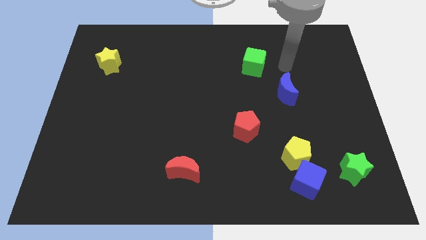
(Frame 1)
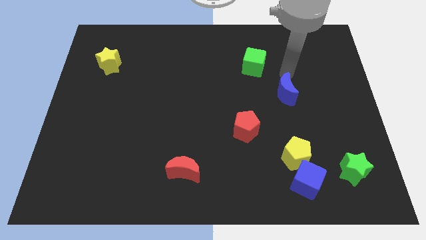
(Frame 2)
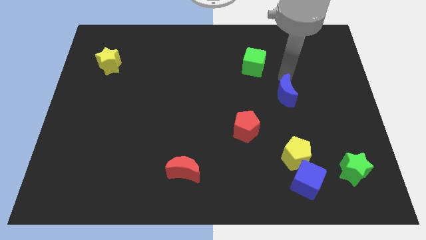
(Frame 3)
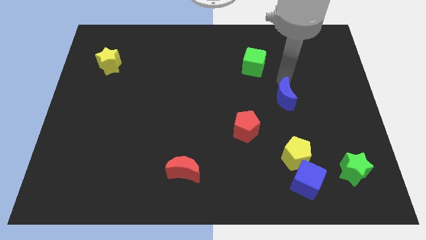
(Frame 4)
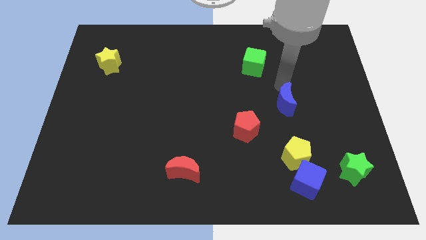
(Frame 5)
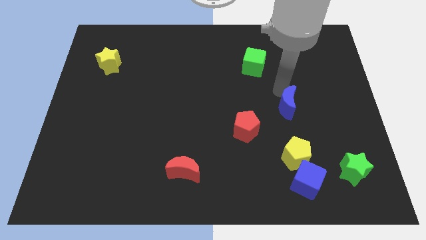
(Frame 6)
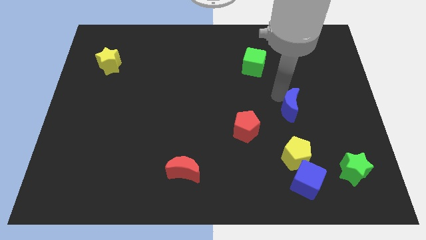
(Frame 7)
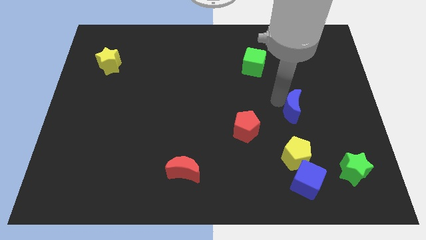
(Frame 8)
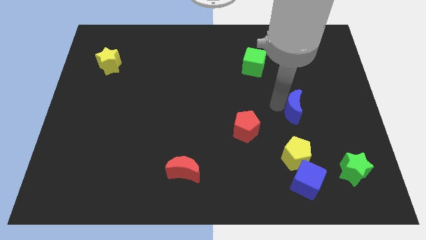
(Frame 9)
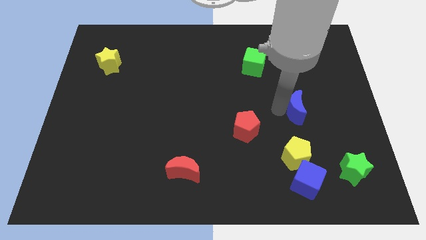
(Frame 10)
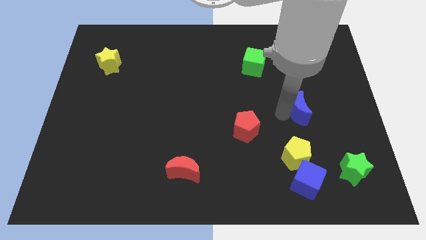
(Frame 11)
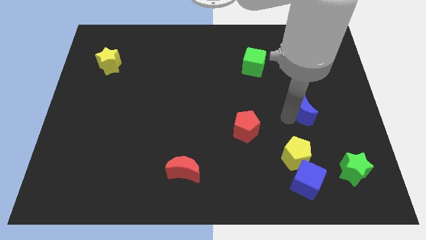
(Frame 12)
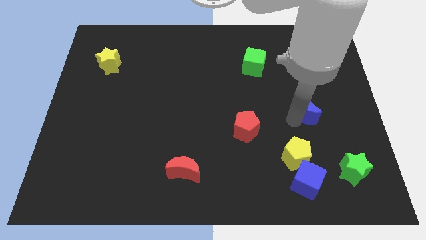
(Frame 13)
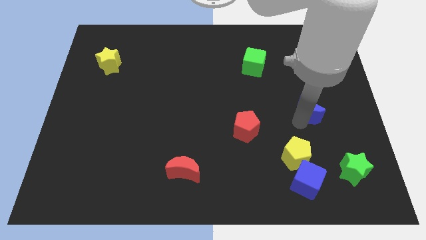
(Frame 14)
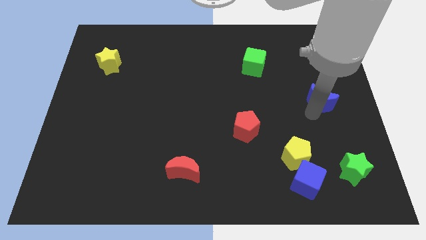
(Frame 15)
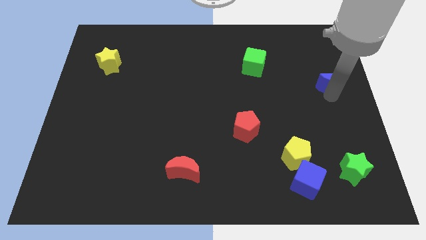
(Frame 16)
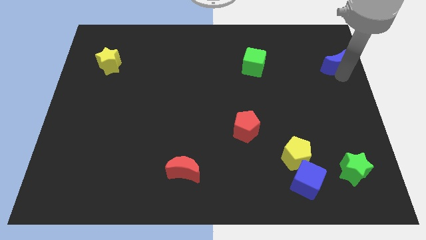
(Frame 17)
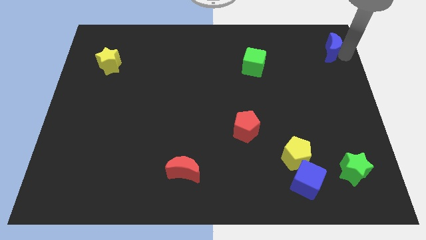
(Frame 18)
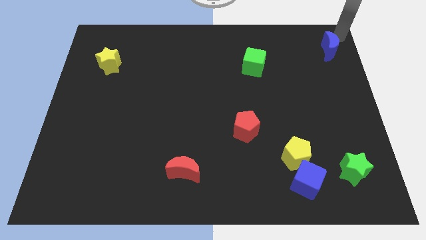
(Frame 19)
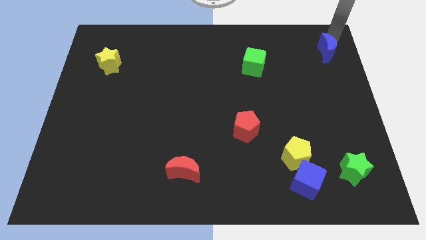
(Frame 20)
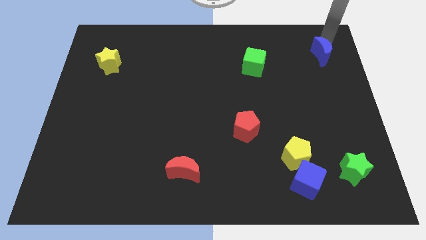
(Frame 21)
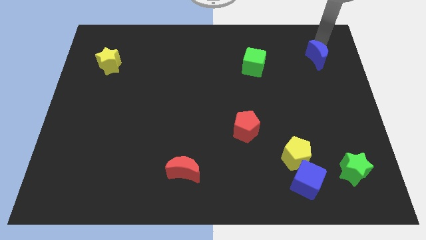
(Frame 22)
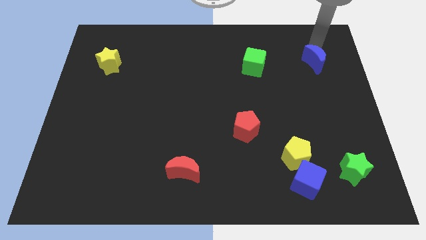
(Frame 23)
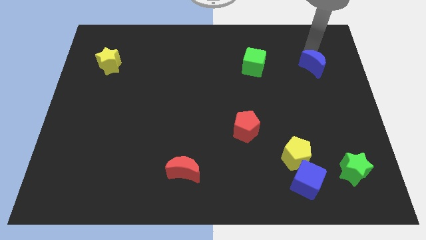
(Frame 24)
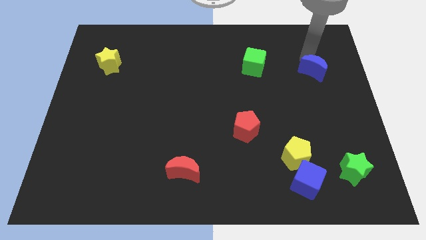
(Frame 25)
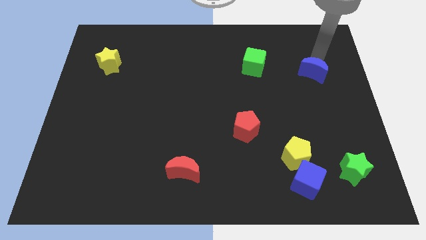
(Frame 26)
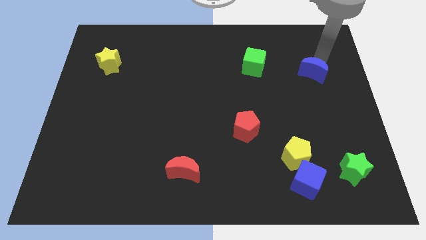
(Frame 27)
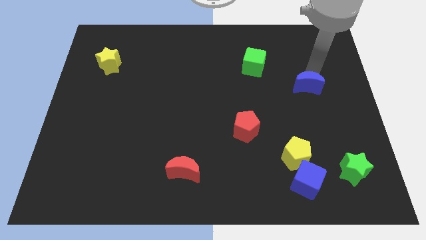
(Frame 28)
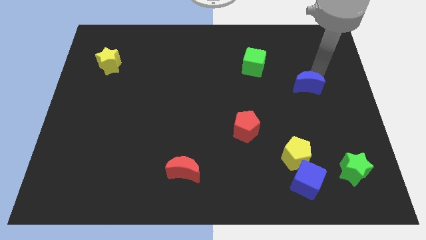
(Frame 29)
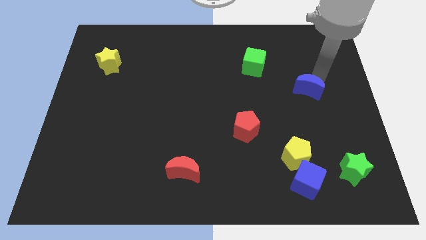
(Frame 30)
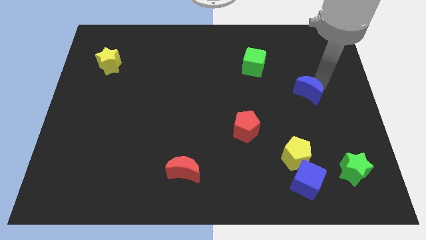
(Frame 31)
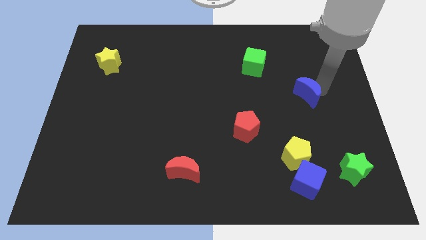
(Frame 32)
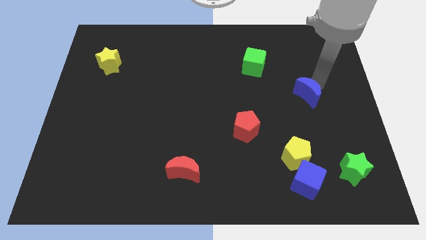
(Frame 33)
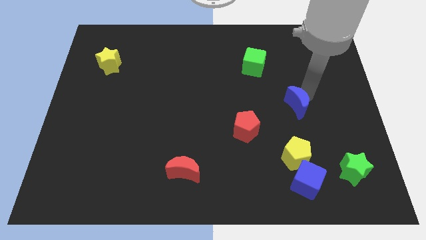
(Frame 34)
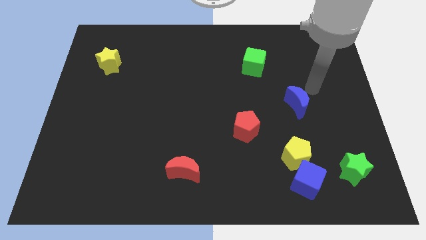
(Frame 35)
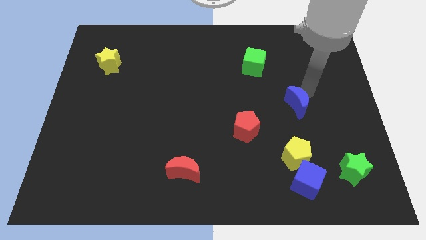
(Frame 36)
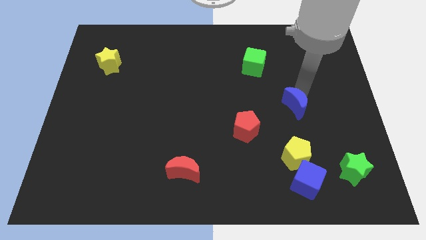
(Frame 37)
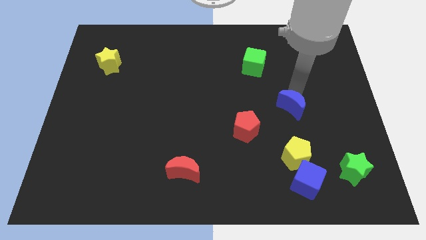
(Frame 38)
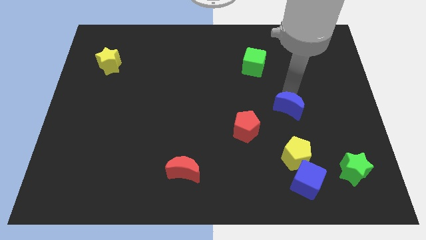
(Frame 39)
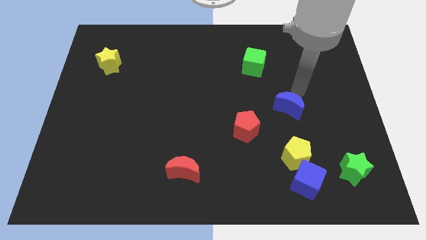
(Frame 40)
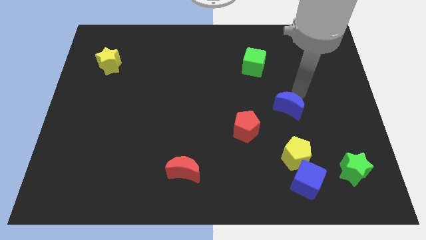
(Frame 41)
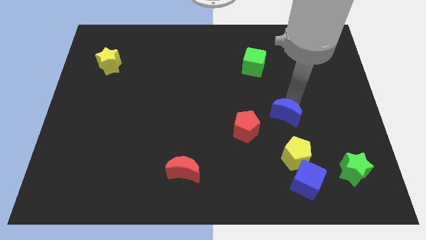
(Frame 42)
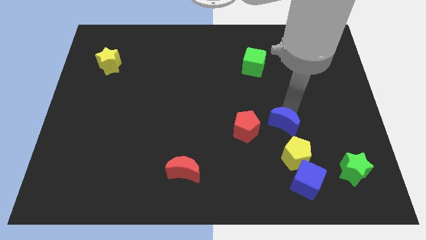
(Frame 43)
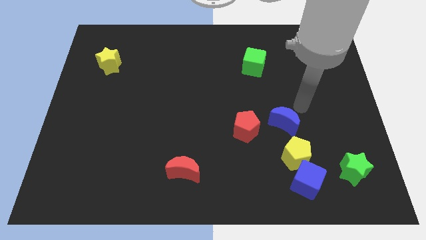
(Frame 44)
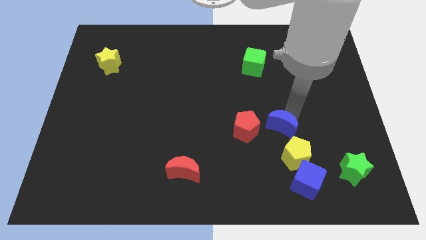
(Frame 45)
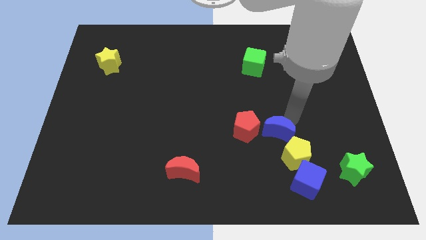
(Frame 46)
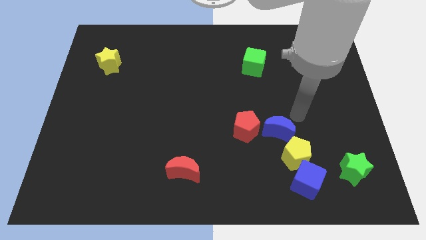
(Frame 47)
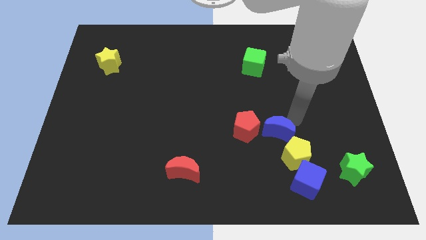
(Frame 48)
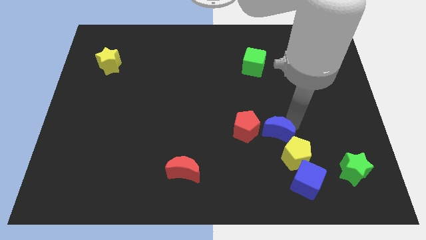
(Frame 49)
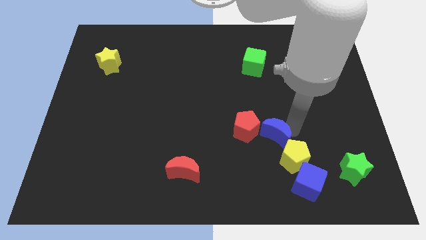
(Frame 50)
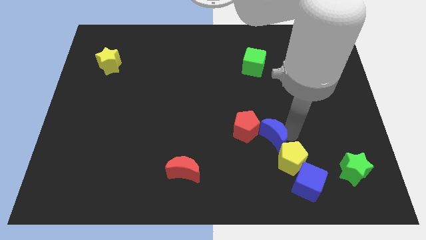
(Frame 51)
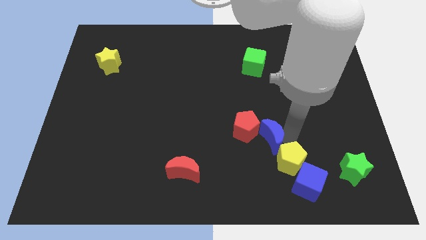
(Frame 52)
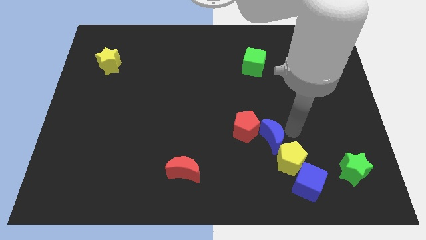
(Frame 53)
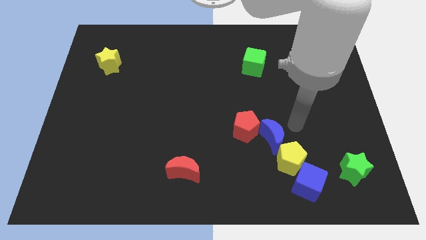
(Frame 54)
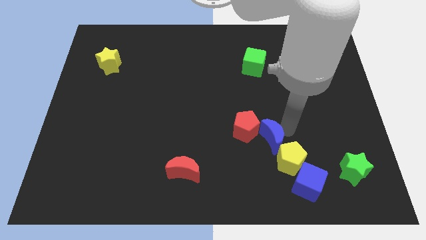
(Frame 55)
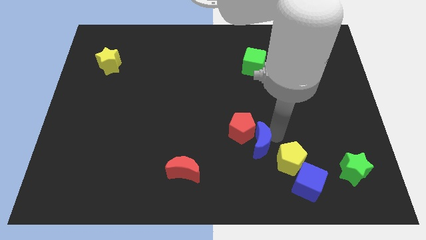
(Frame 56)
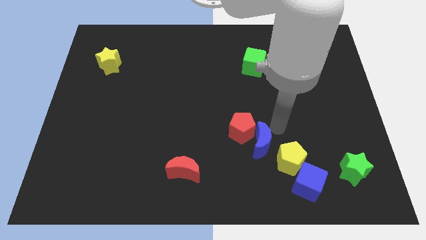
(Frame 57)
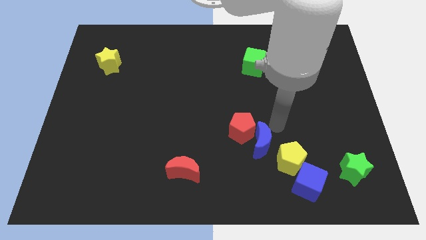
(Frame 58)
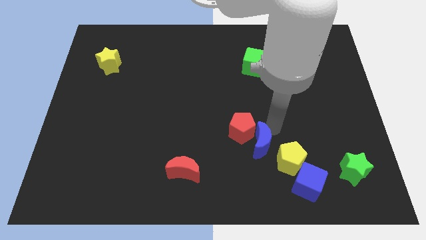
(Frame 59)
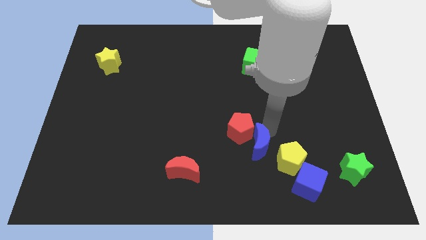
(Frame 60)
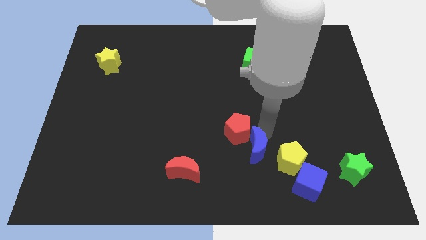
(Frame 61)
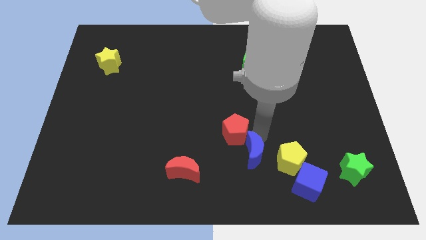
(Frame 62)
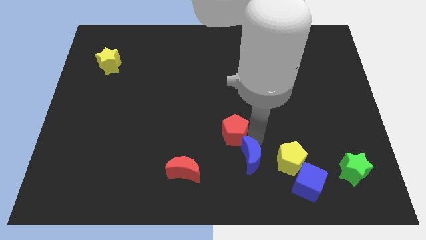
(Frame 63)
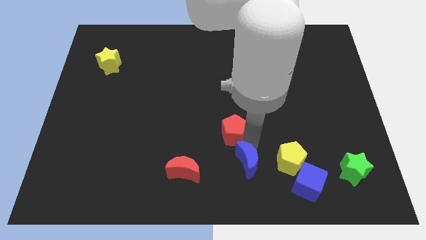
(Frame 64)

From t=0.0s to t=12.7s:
move the blue moon to the bottom side

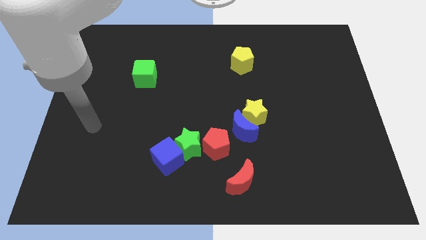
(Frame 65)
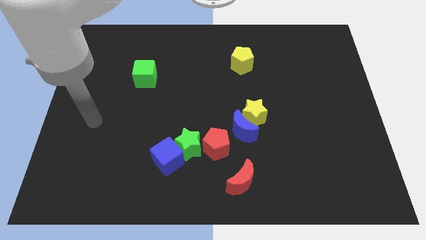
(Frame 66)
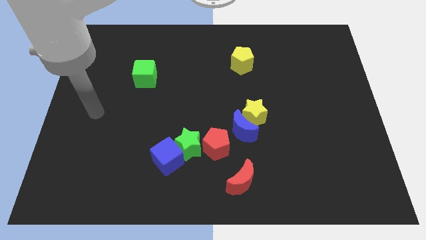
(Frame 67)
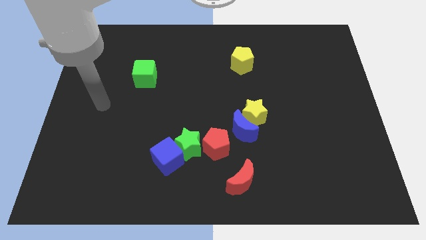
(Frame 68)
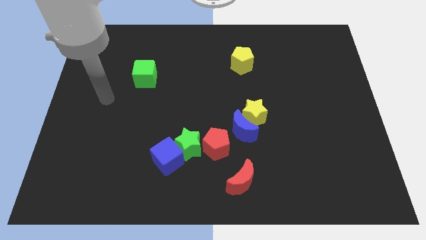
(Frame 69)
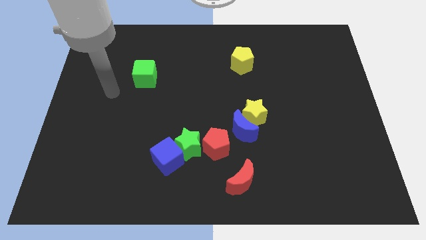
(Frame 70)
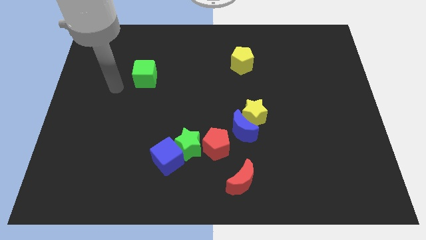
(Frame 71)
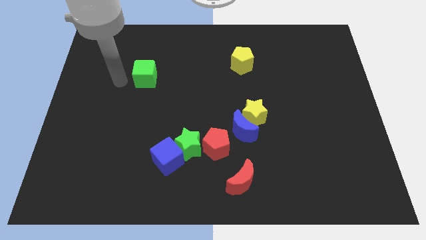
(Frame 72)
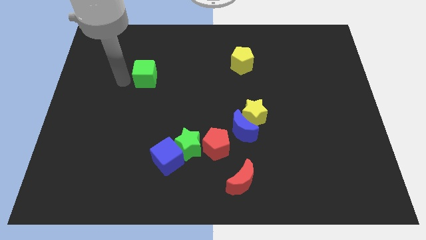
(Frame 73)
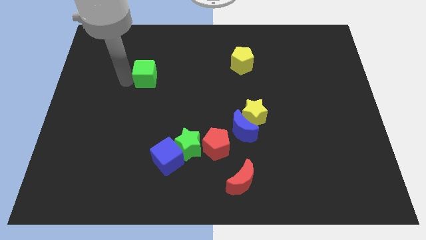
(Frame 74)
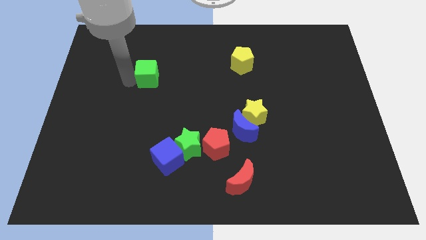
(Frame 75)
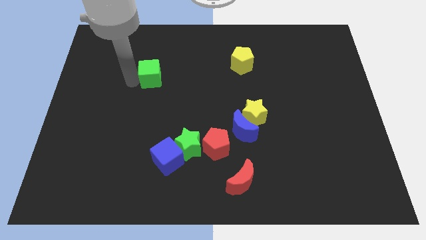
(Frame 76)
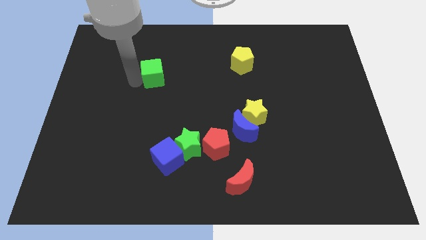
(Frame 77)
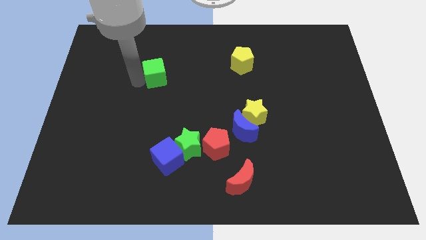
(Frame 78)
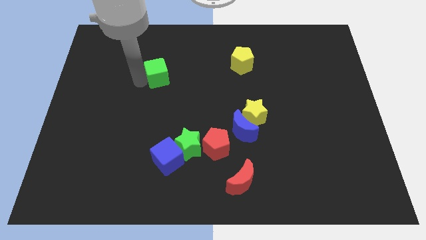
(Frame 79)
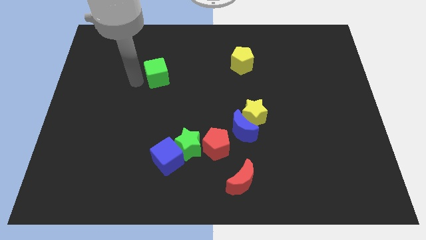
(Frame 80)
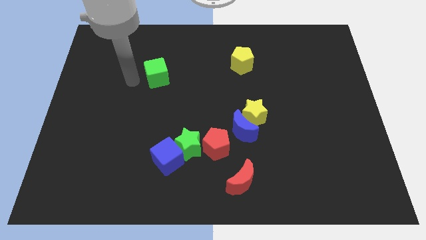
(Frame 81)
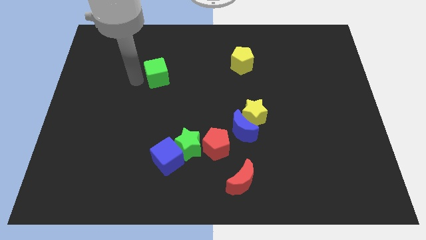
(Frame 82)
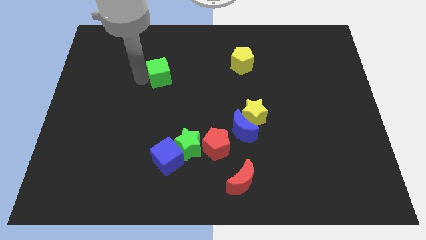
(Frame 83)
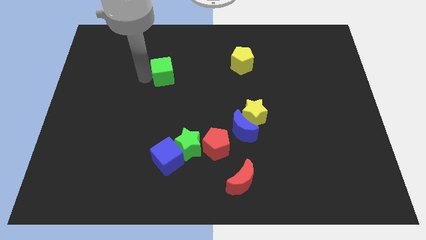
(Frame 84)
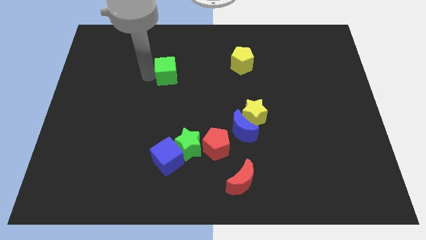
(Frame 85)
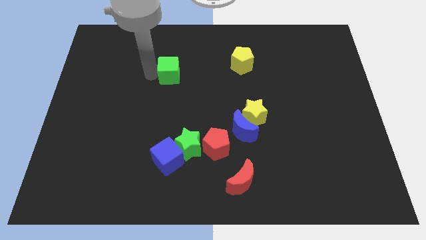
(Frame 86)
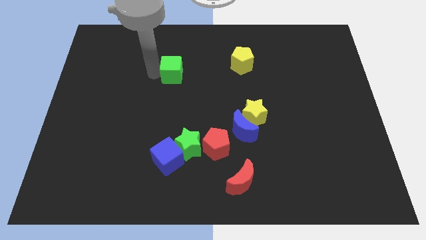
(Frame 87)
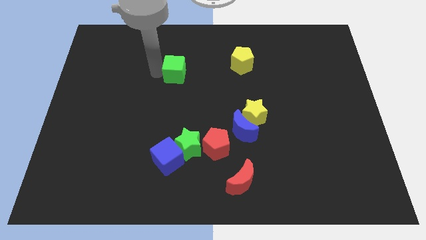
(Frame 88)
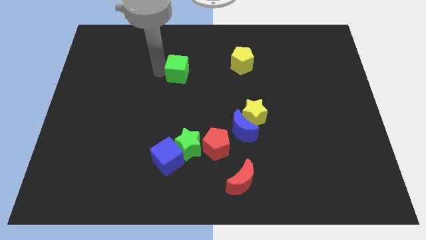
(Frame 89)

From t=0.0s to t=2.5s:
slide the green cube to the middle of the board
